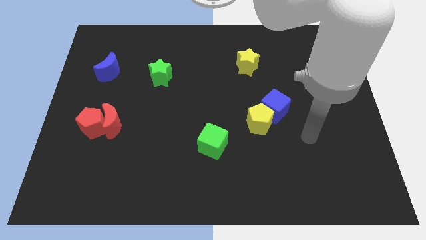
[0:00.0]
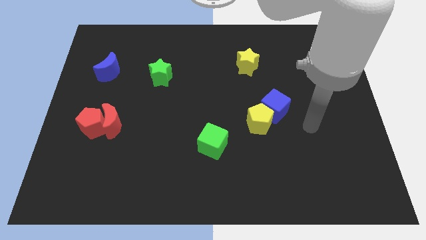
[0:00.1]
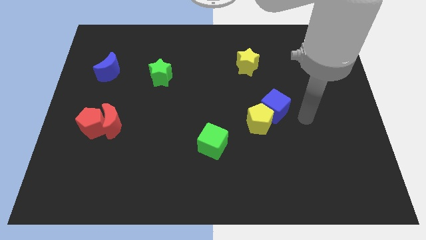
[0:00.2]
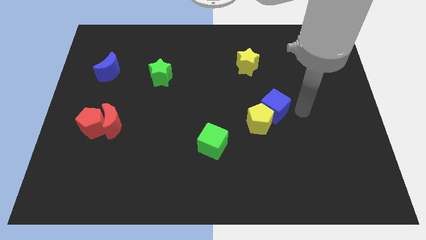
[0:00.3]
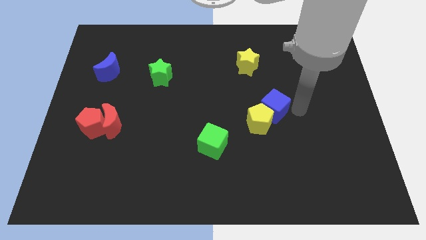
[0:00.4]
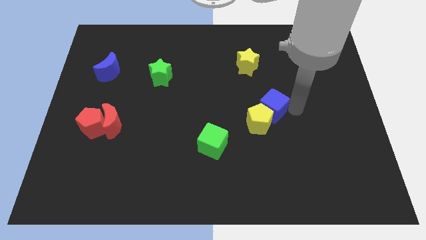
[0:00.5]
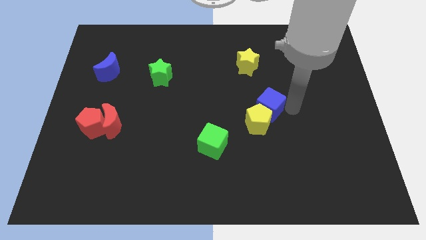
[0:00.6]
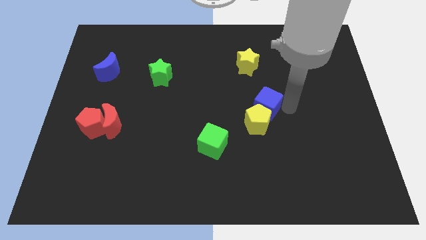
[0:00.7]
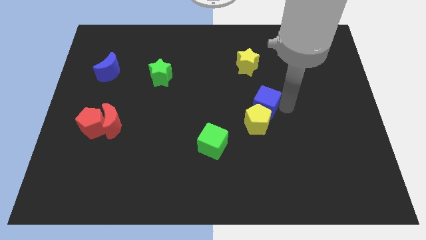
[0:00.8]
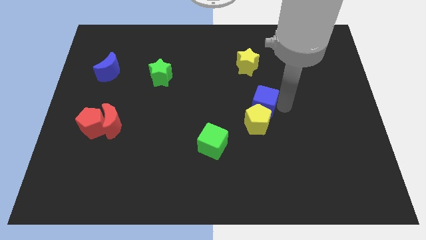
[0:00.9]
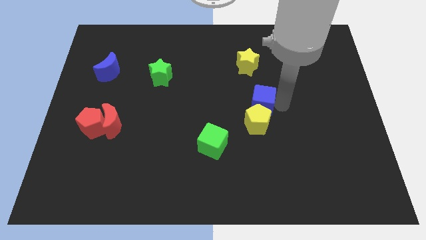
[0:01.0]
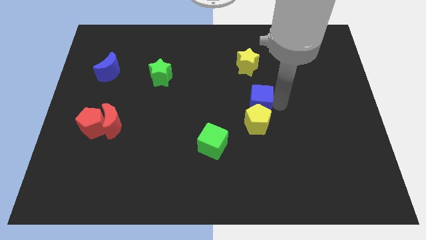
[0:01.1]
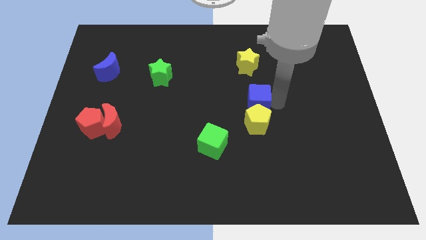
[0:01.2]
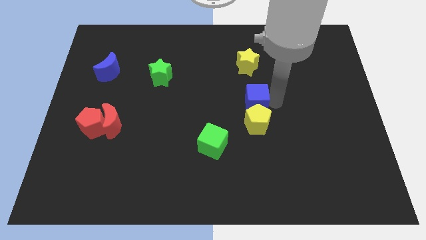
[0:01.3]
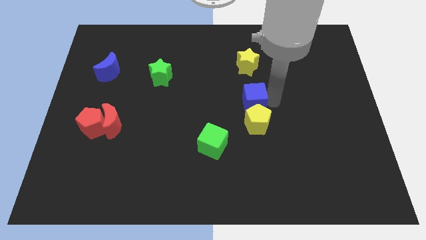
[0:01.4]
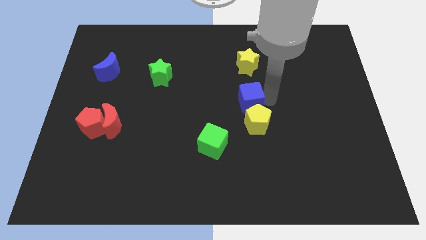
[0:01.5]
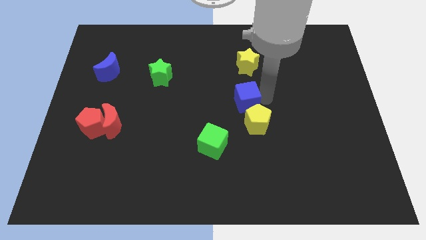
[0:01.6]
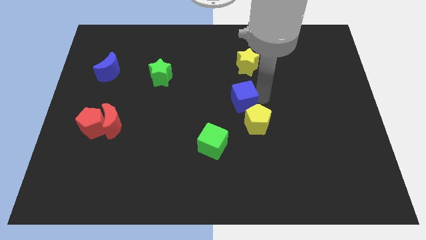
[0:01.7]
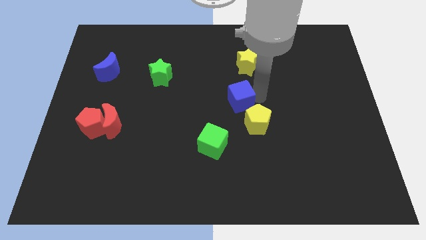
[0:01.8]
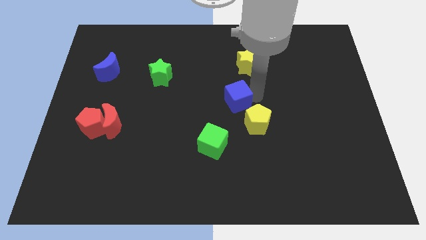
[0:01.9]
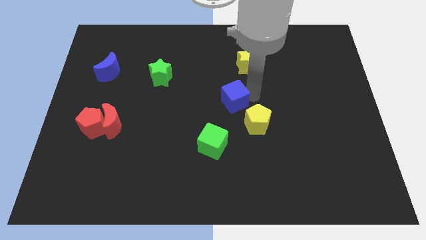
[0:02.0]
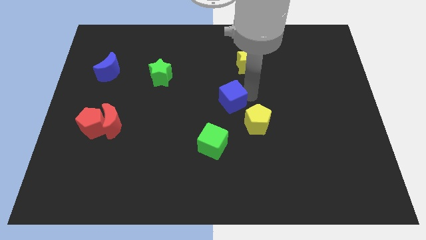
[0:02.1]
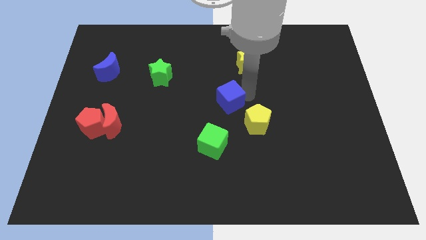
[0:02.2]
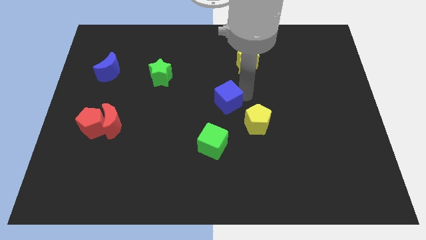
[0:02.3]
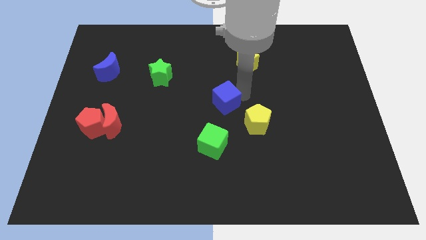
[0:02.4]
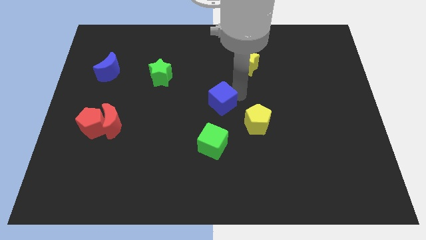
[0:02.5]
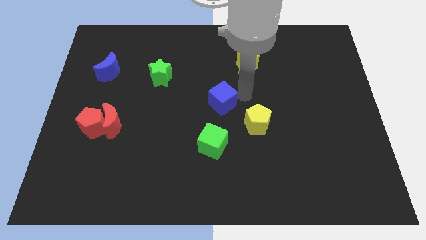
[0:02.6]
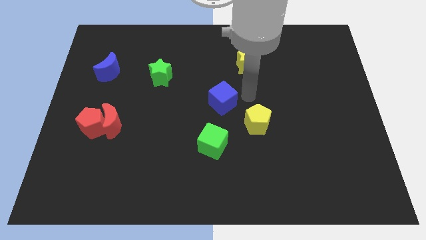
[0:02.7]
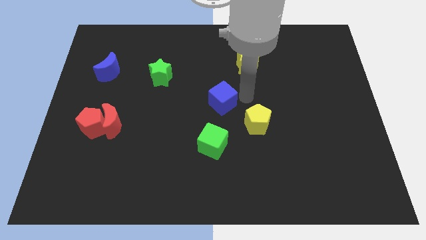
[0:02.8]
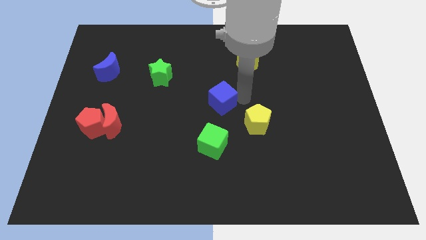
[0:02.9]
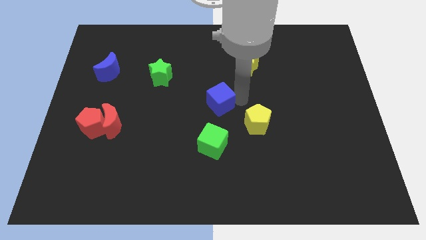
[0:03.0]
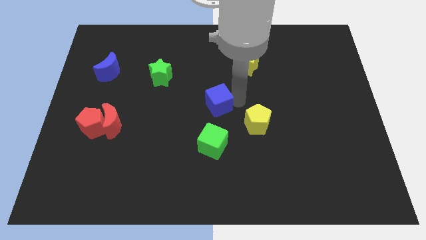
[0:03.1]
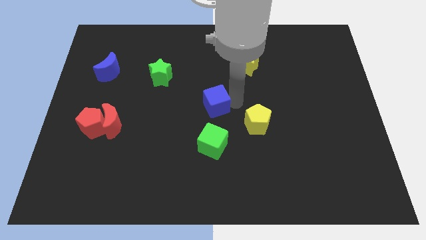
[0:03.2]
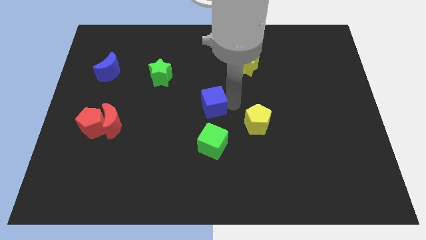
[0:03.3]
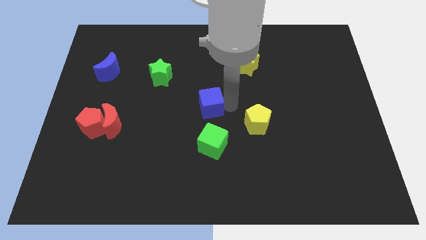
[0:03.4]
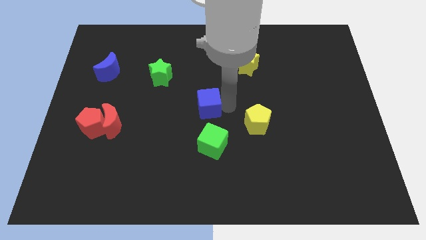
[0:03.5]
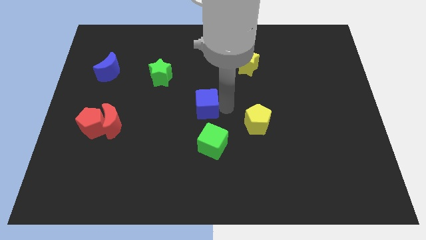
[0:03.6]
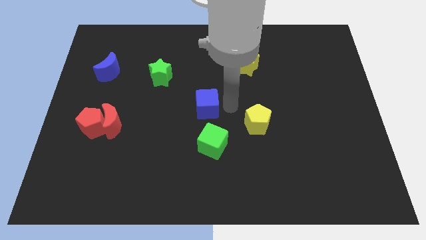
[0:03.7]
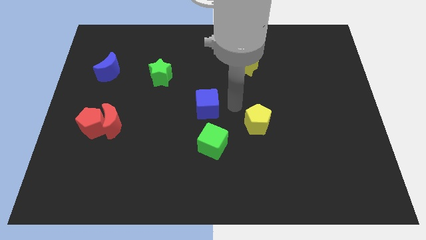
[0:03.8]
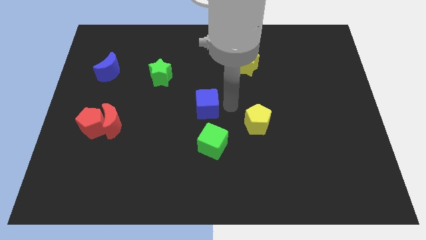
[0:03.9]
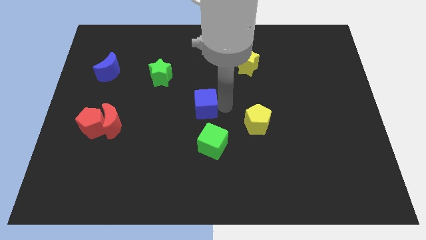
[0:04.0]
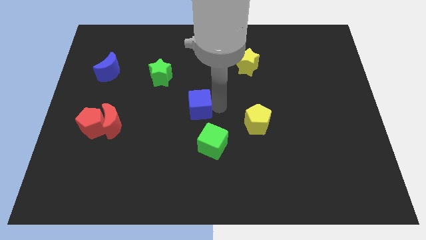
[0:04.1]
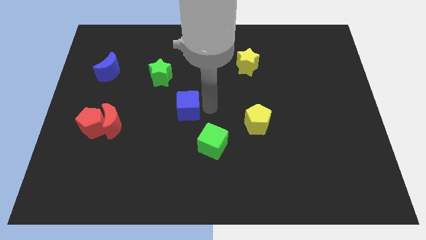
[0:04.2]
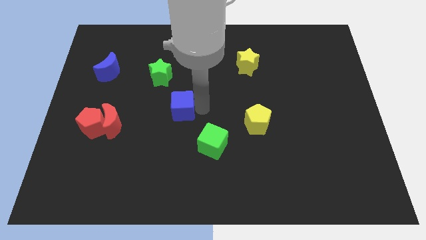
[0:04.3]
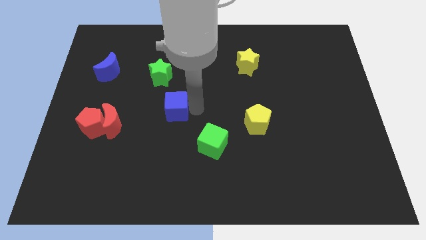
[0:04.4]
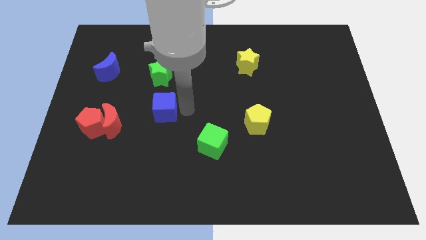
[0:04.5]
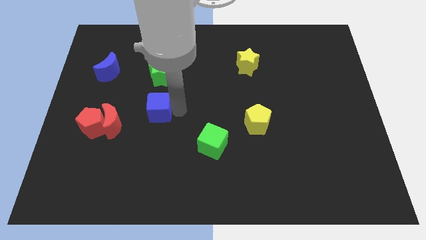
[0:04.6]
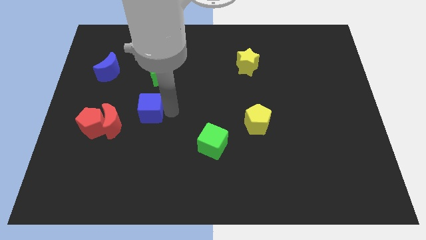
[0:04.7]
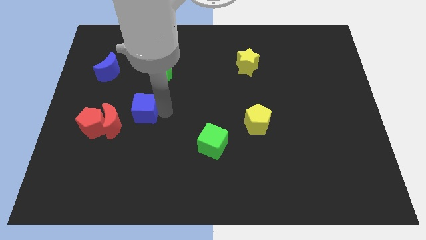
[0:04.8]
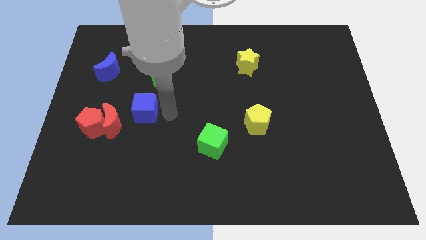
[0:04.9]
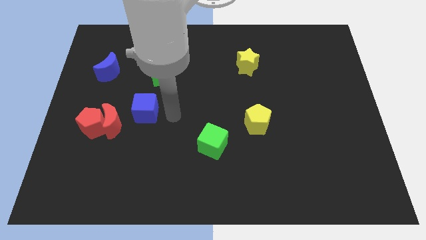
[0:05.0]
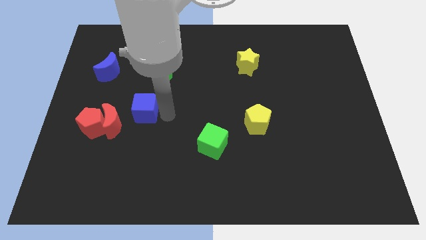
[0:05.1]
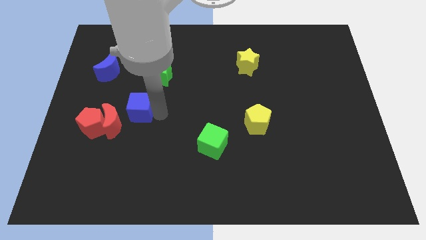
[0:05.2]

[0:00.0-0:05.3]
push the blue cube to the top right side of the red pentagon
